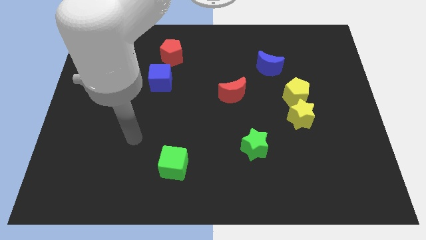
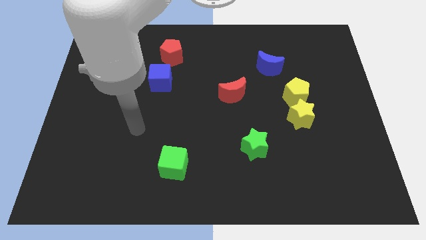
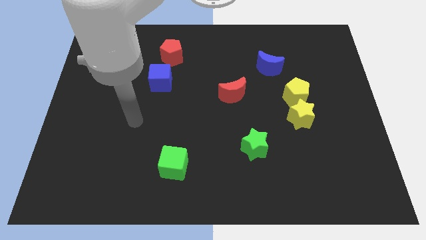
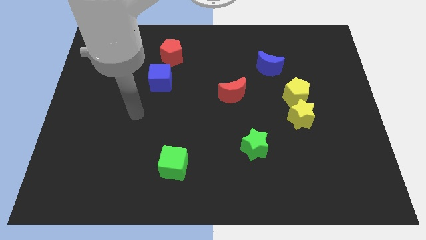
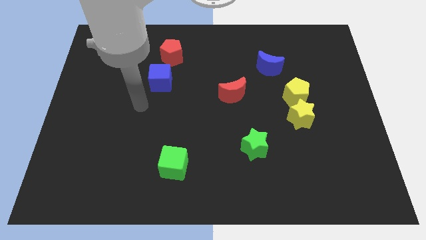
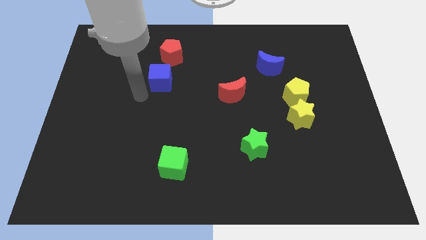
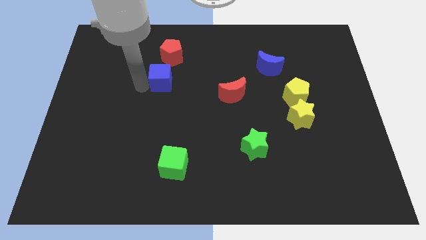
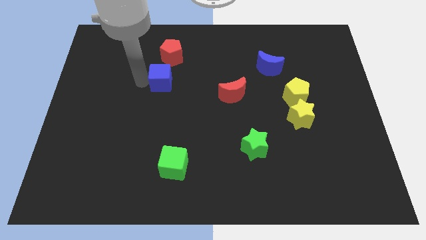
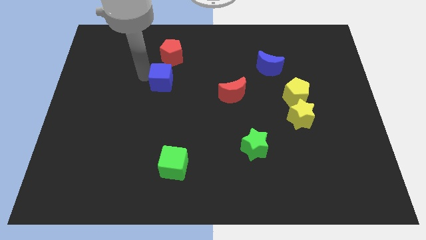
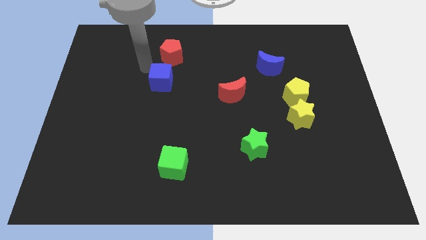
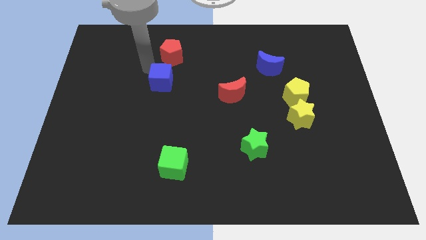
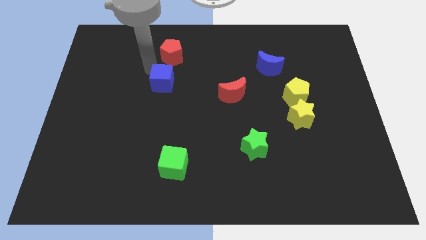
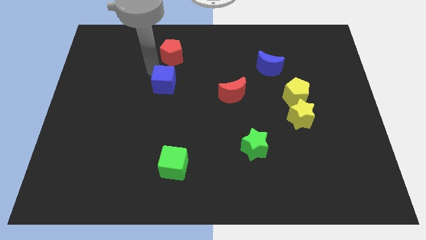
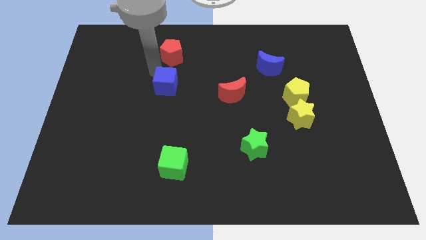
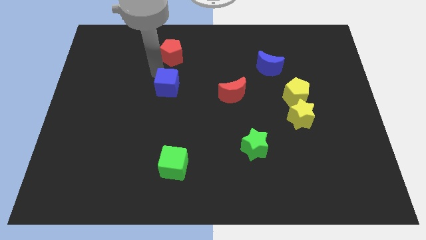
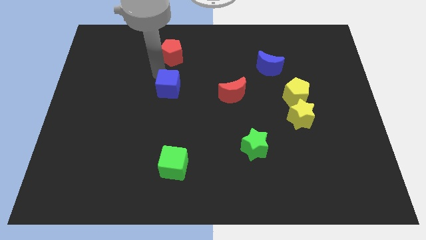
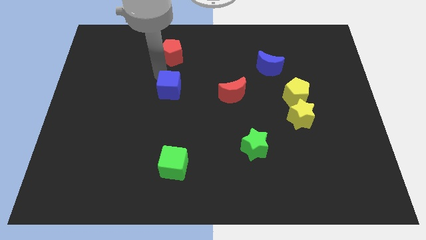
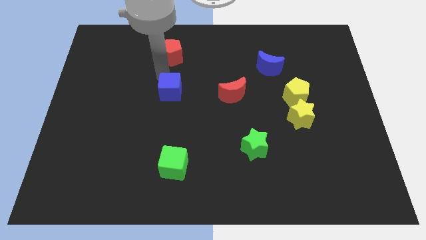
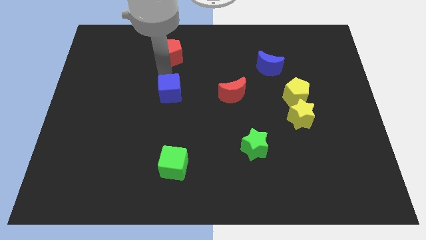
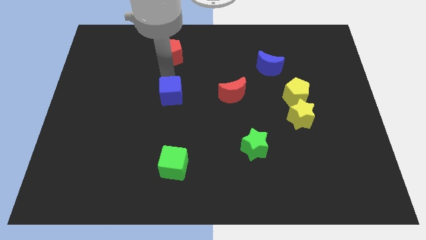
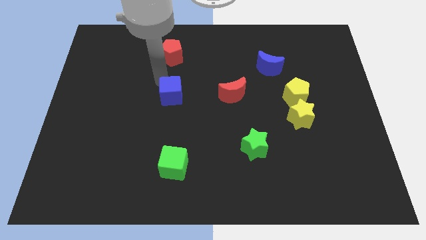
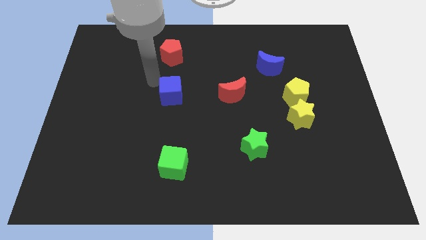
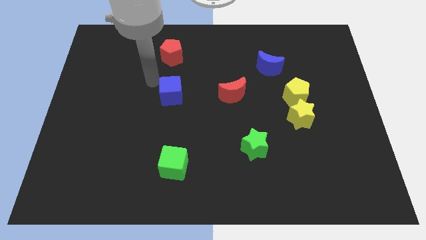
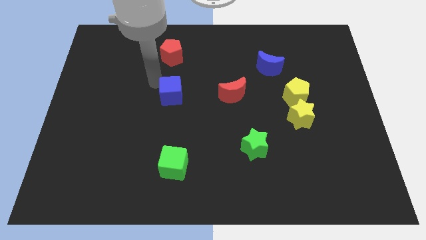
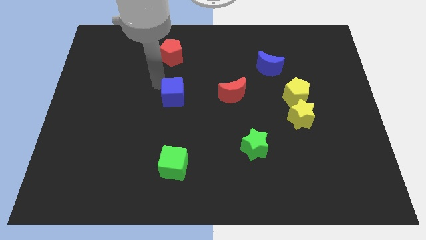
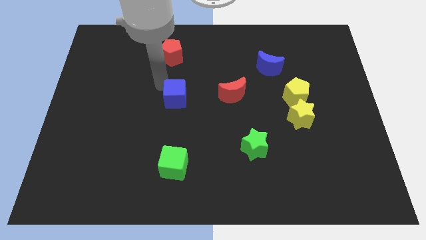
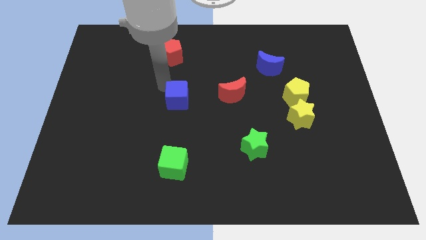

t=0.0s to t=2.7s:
move the blue cube a bit diagonally downwards and right

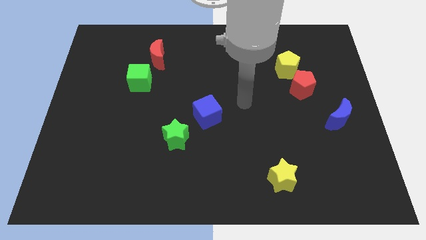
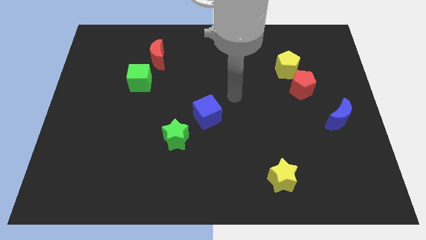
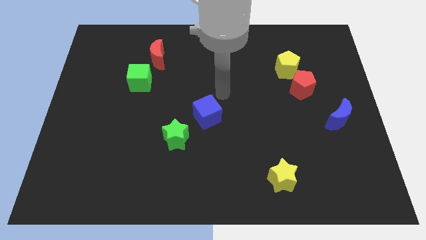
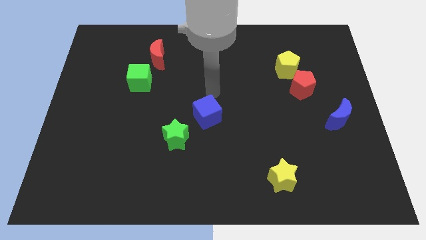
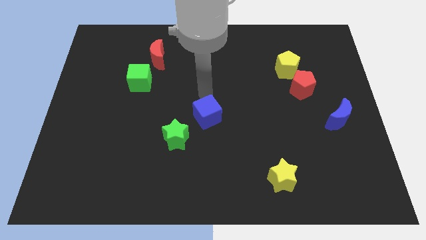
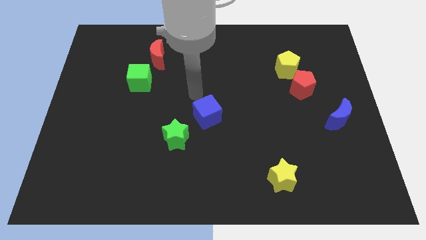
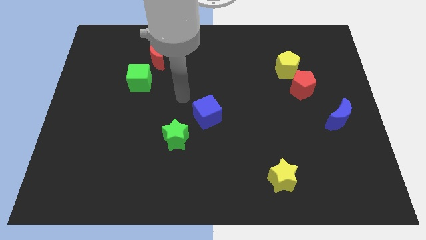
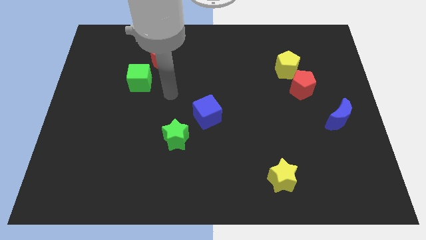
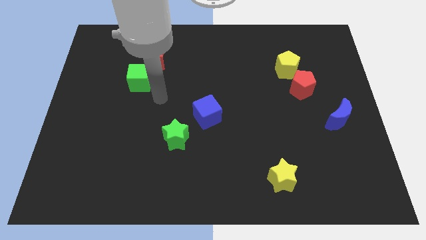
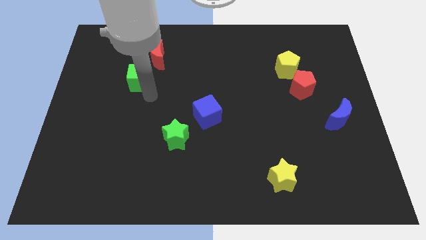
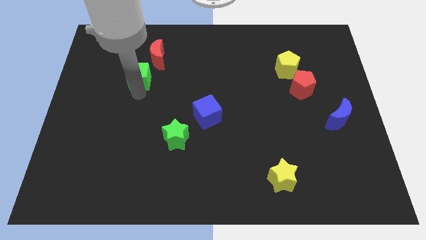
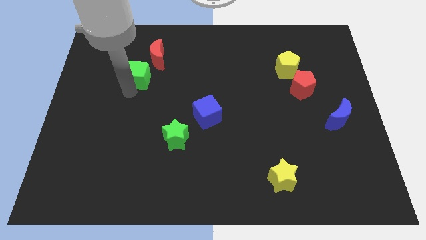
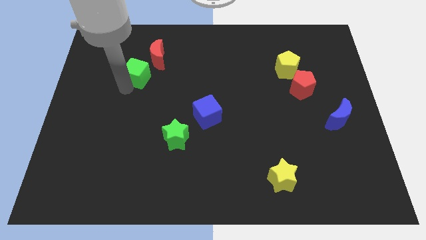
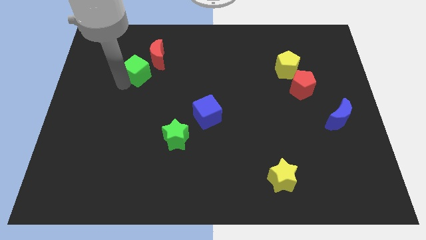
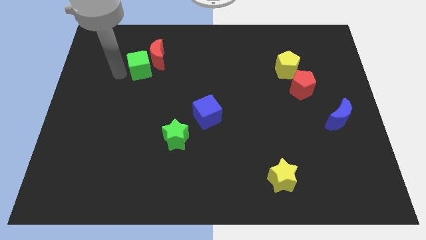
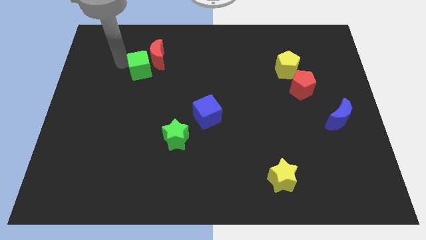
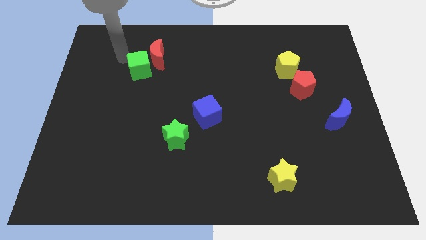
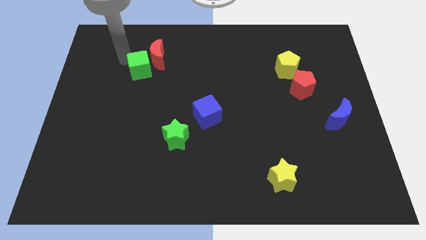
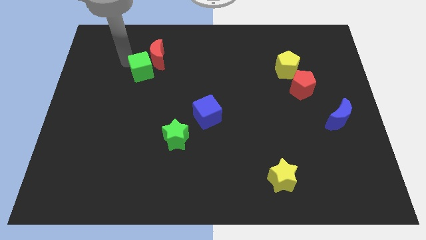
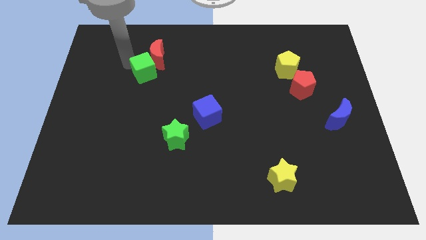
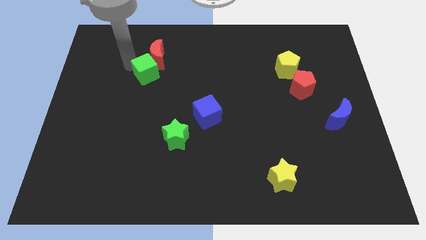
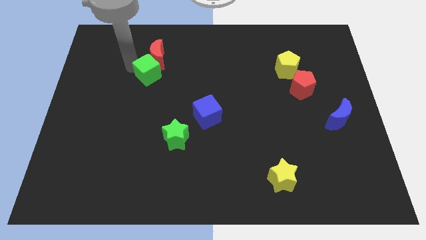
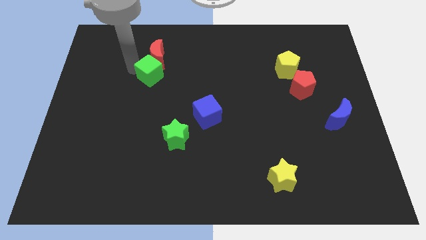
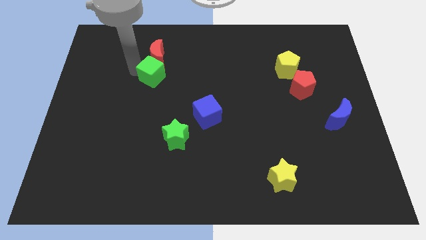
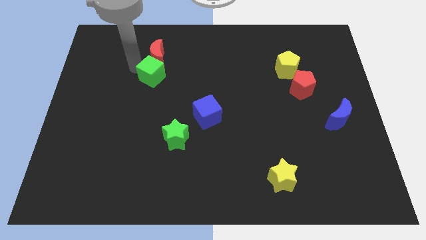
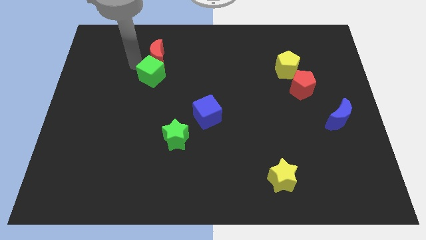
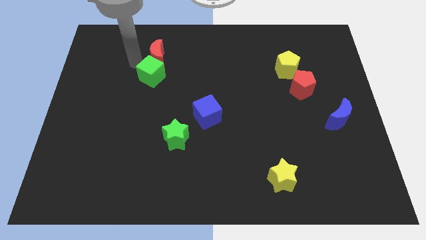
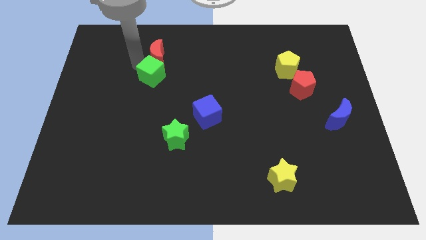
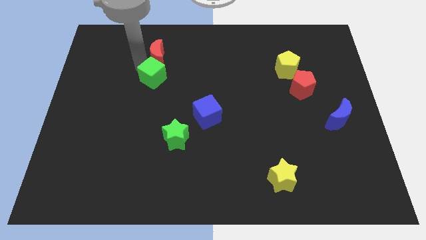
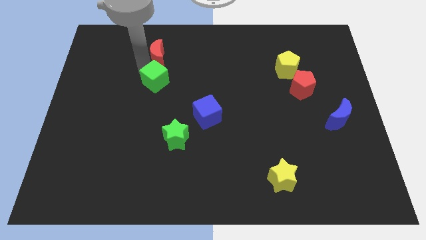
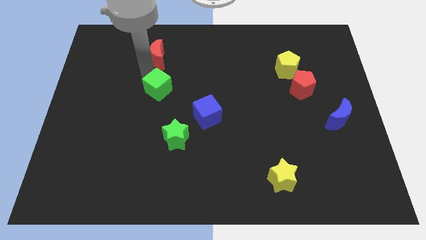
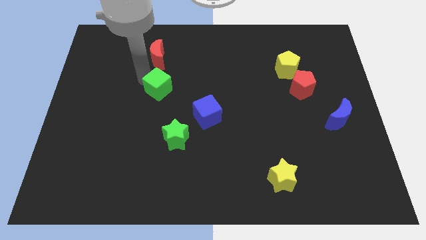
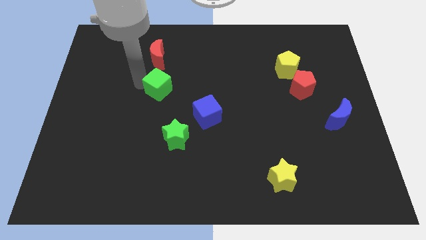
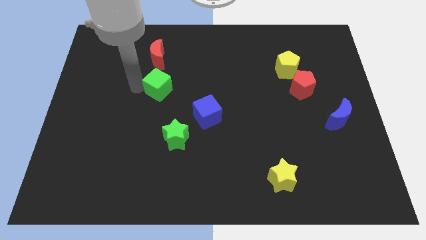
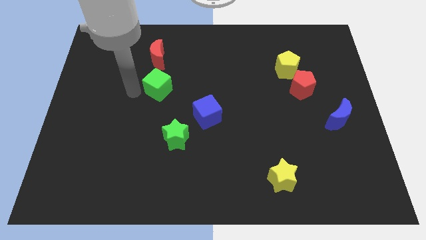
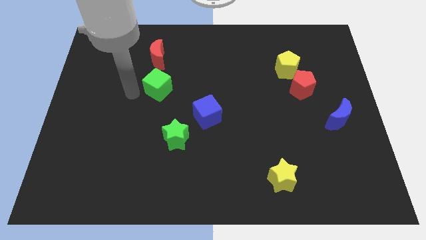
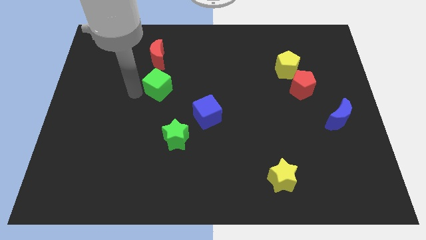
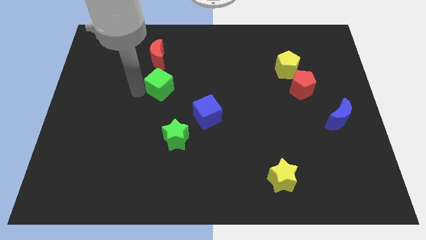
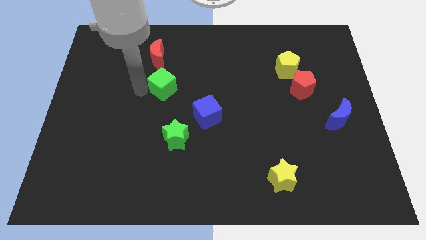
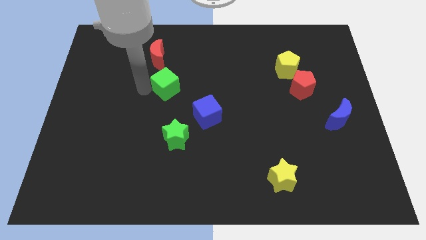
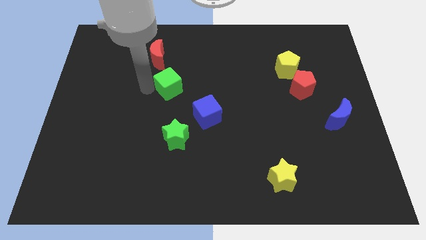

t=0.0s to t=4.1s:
move the green cube right a bit

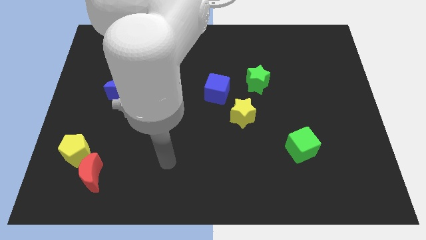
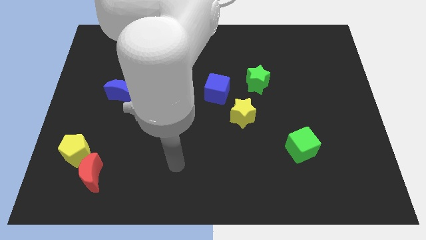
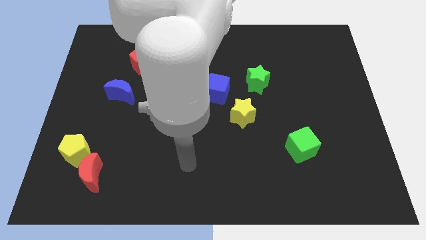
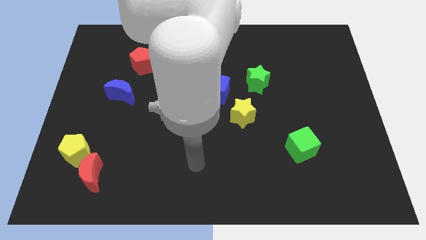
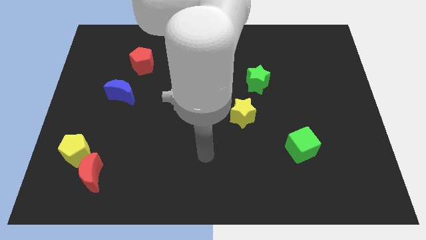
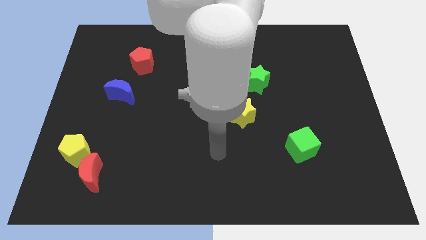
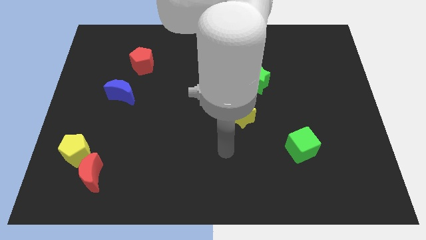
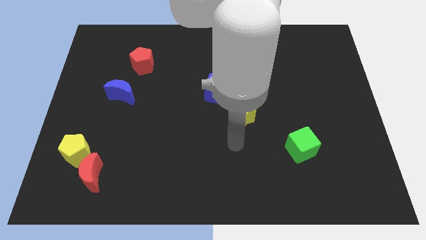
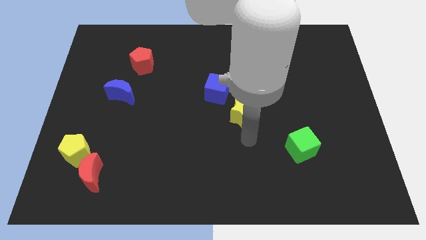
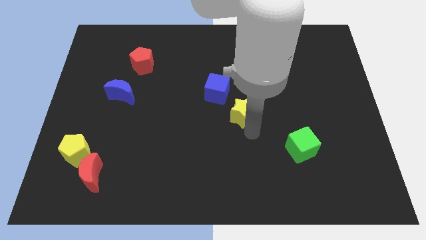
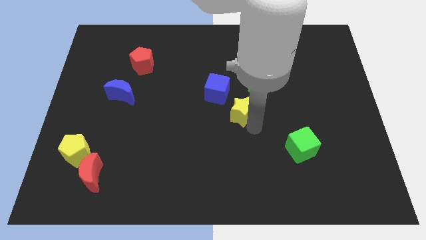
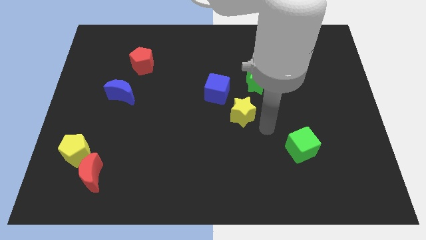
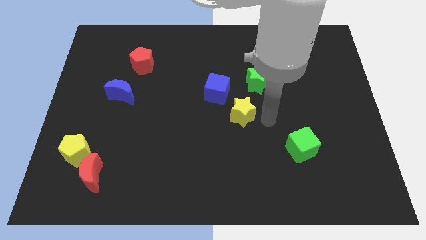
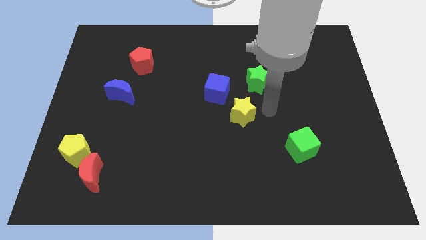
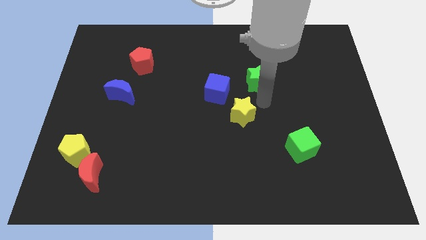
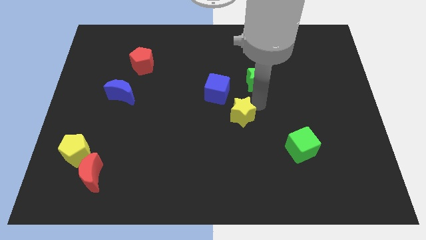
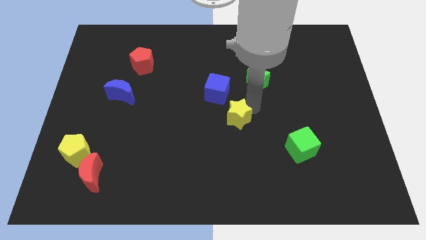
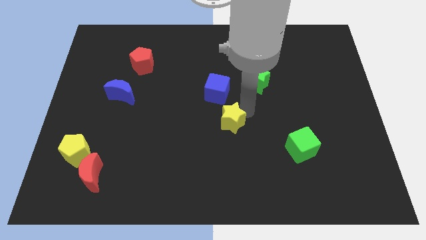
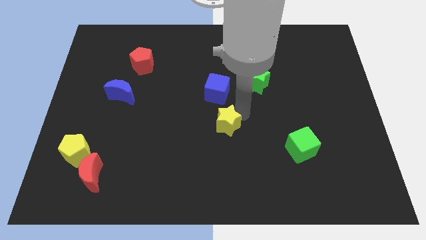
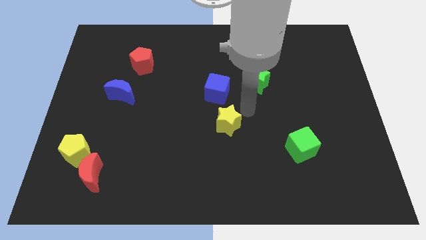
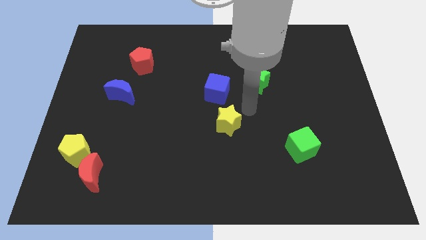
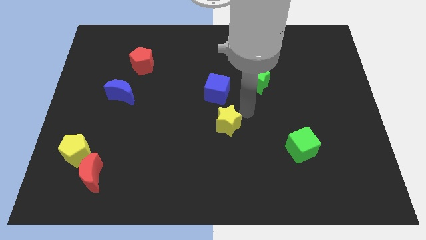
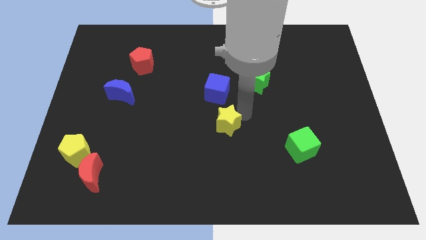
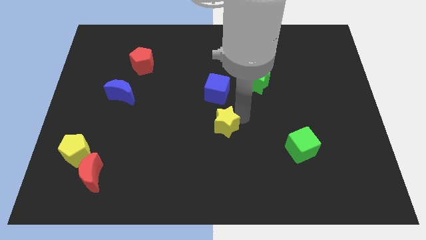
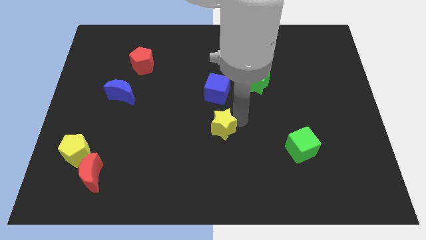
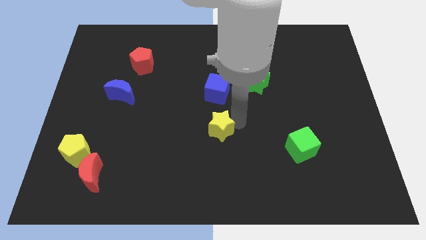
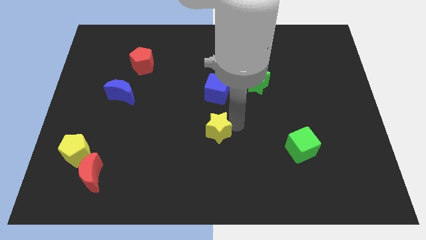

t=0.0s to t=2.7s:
slide the yellow star downwards and left diagonally a little bit
